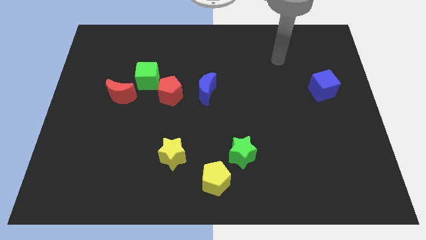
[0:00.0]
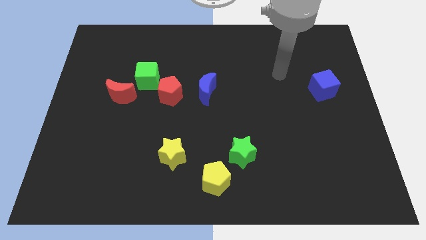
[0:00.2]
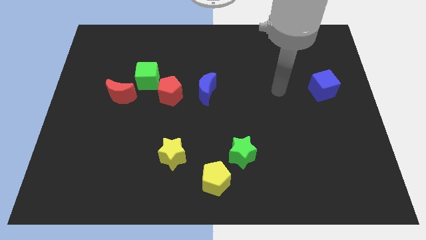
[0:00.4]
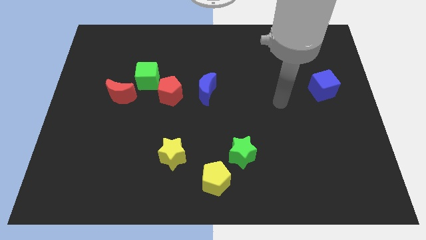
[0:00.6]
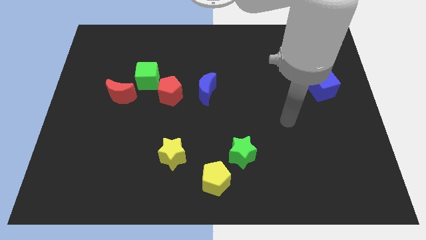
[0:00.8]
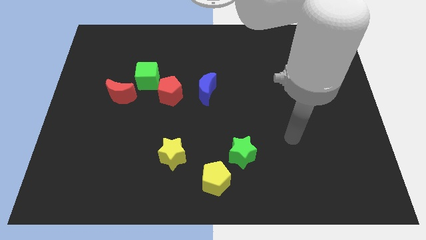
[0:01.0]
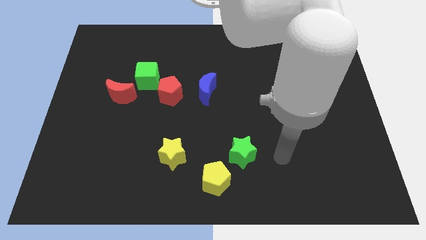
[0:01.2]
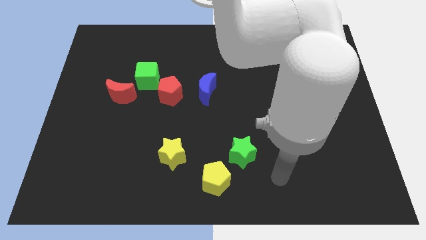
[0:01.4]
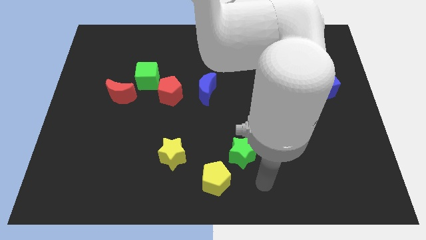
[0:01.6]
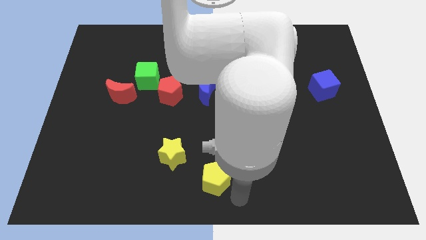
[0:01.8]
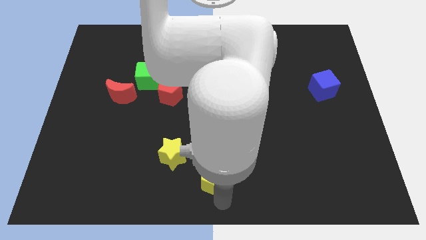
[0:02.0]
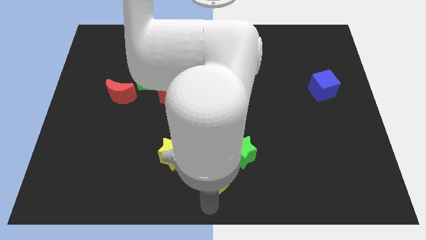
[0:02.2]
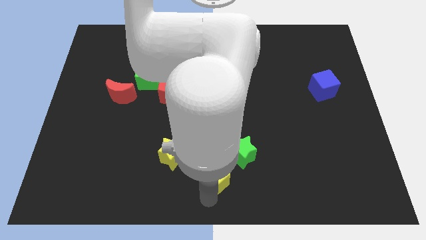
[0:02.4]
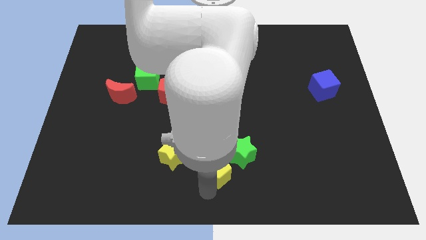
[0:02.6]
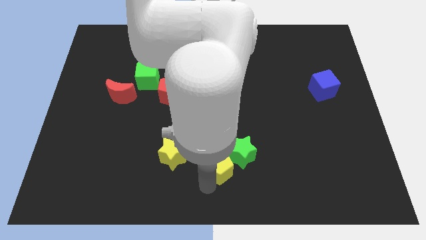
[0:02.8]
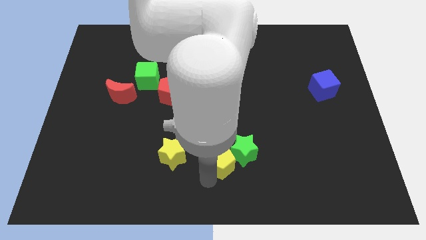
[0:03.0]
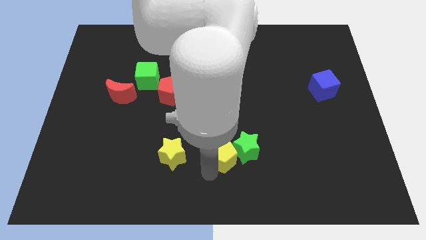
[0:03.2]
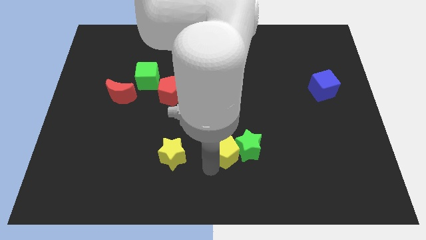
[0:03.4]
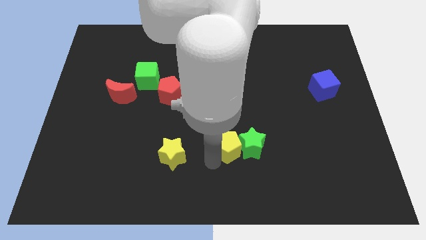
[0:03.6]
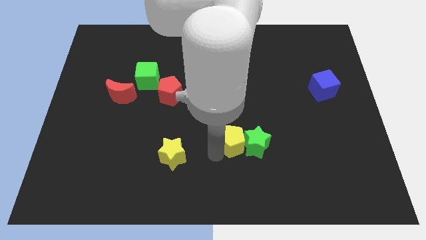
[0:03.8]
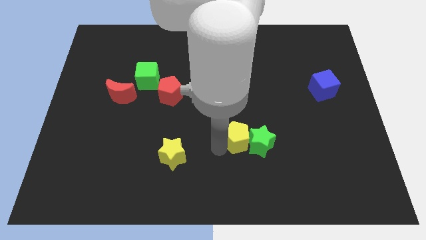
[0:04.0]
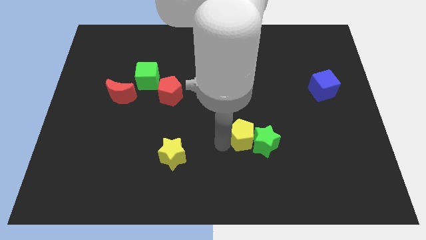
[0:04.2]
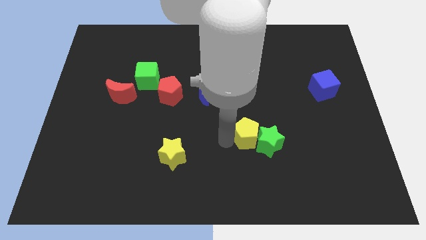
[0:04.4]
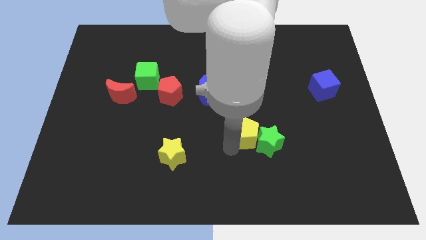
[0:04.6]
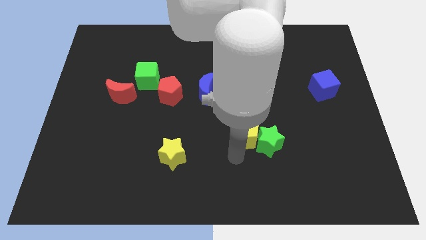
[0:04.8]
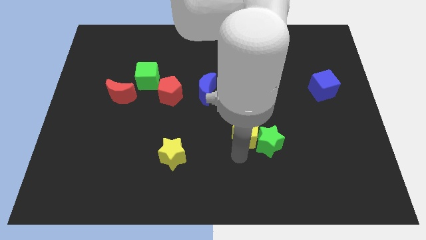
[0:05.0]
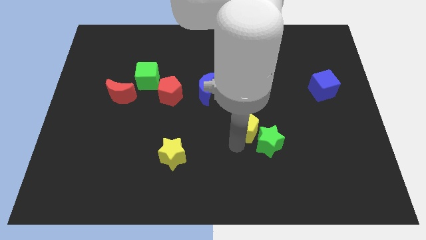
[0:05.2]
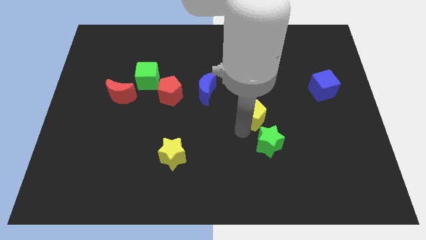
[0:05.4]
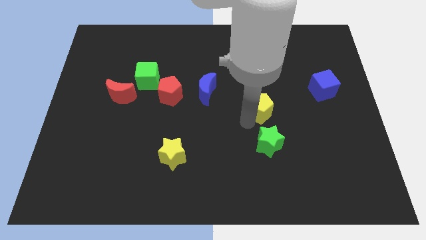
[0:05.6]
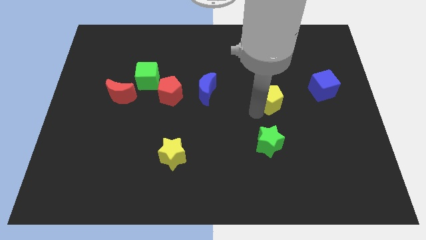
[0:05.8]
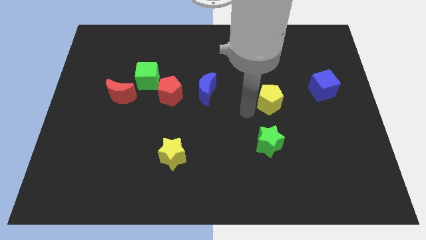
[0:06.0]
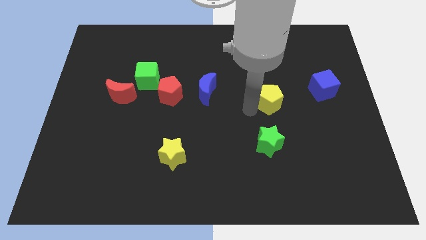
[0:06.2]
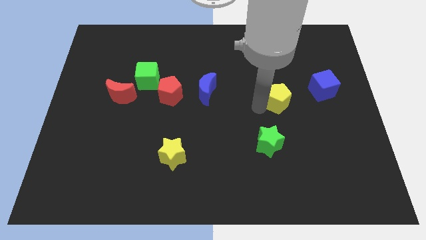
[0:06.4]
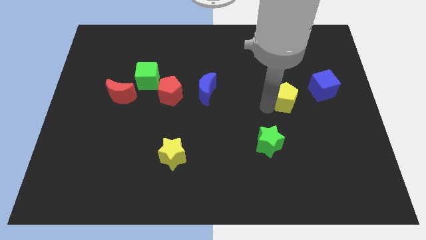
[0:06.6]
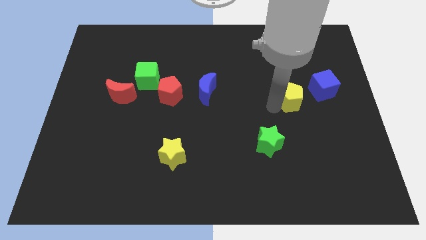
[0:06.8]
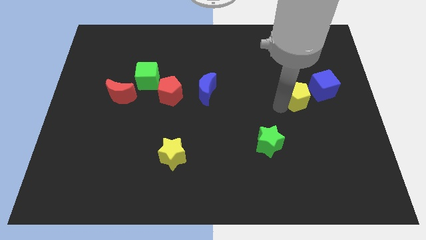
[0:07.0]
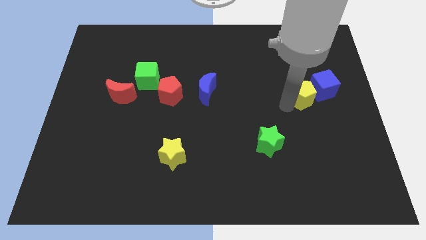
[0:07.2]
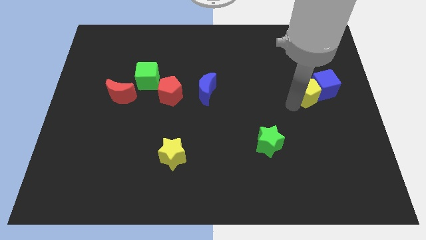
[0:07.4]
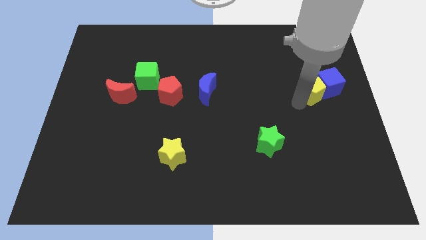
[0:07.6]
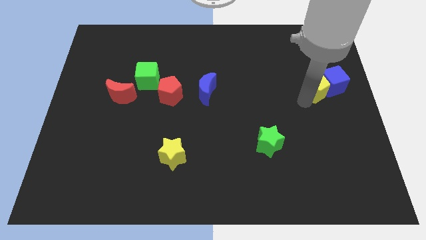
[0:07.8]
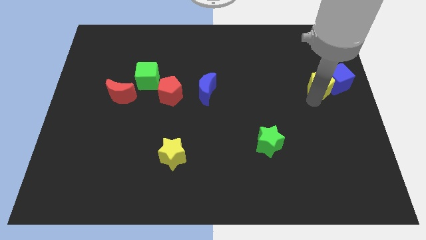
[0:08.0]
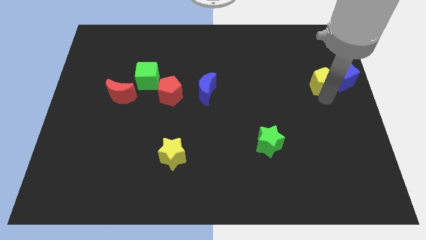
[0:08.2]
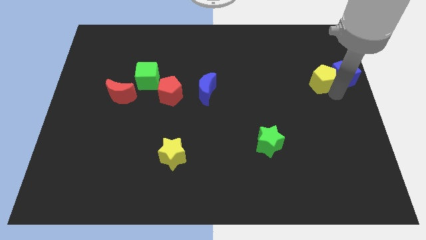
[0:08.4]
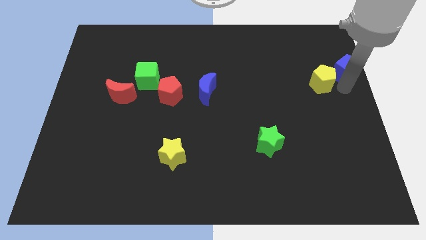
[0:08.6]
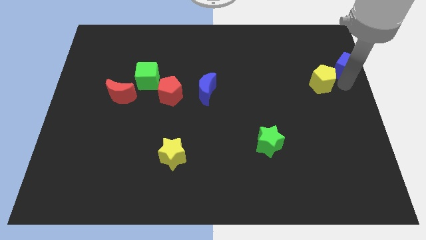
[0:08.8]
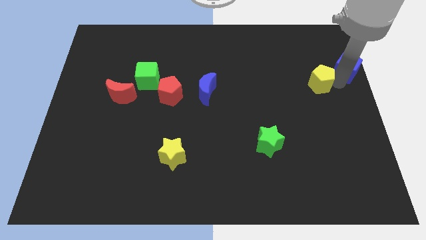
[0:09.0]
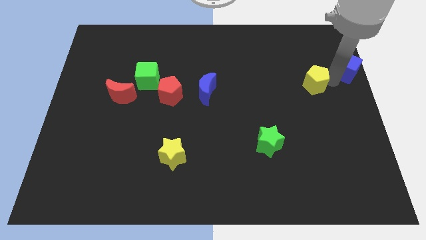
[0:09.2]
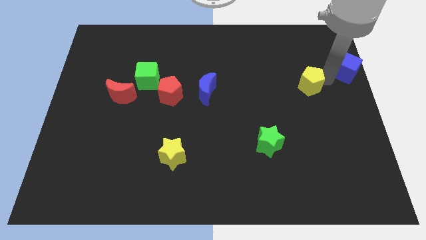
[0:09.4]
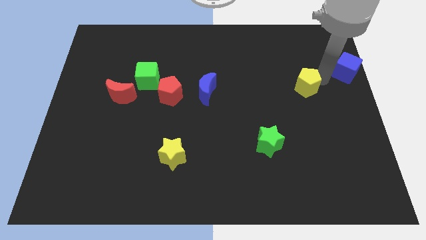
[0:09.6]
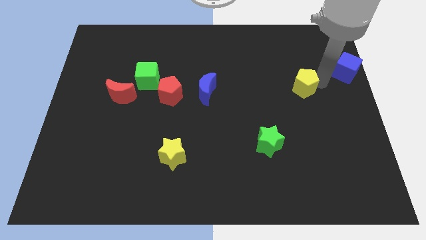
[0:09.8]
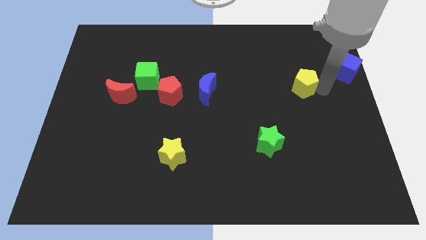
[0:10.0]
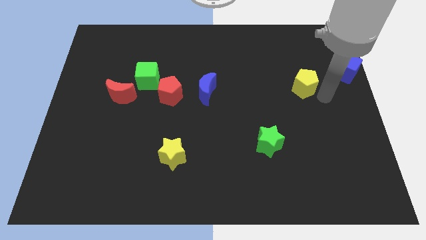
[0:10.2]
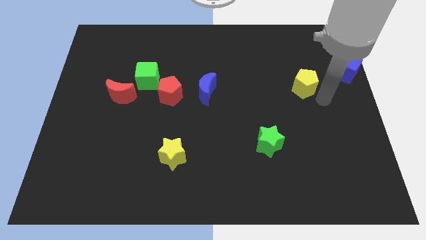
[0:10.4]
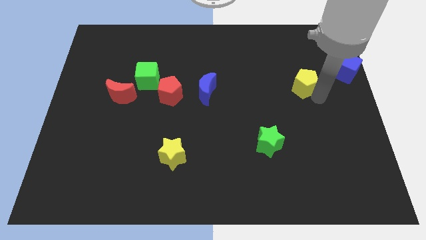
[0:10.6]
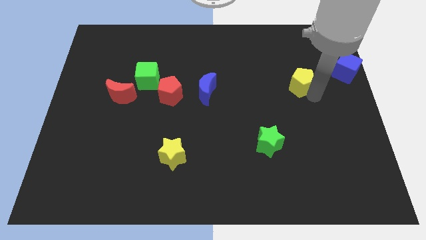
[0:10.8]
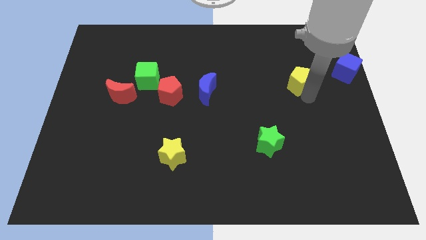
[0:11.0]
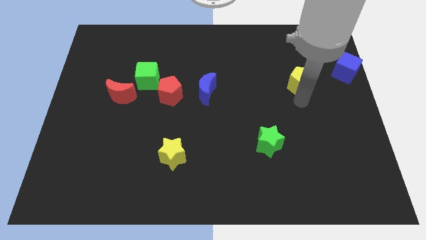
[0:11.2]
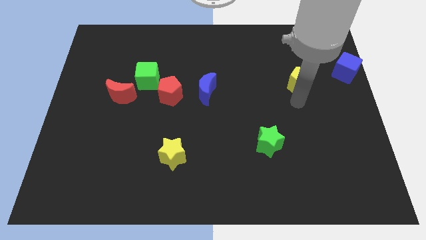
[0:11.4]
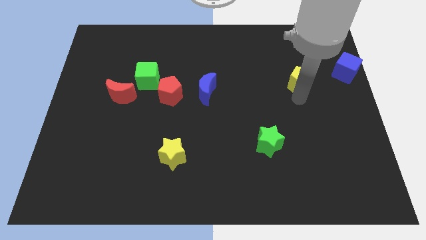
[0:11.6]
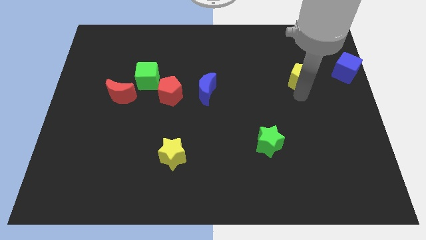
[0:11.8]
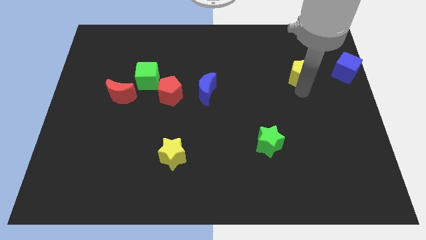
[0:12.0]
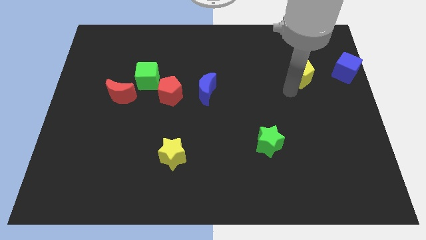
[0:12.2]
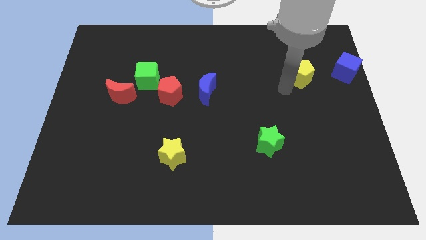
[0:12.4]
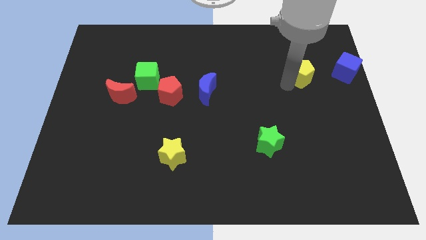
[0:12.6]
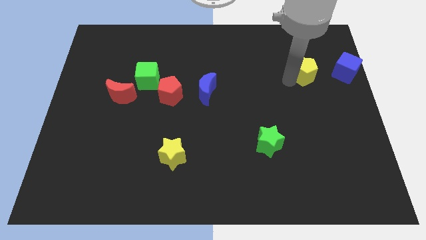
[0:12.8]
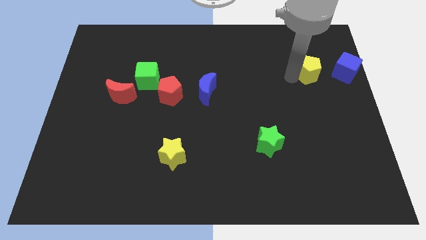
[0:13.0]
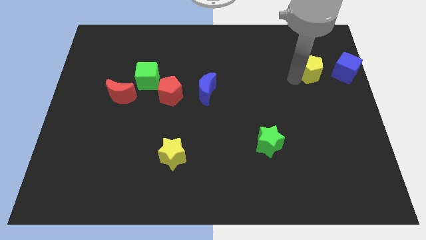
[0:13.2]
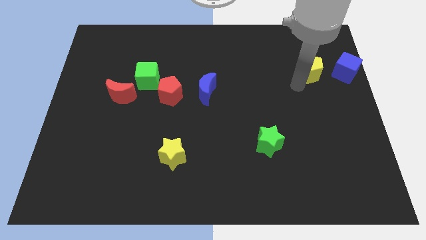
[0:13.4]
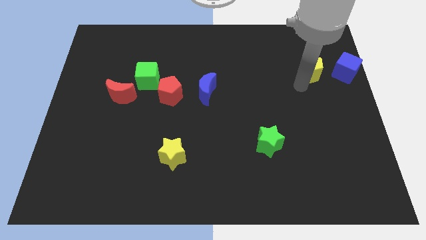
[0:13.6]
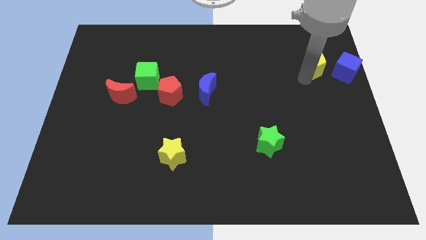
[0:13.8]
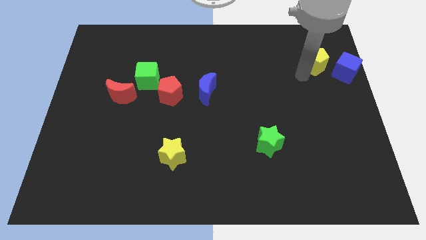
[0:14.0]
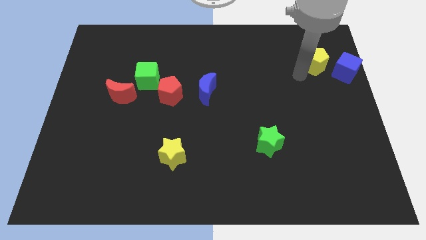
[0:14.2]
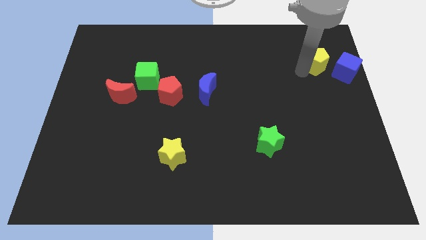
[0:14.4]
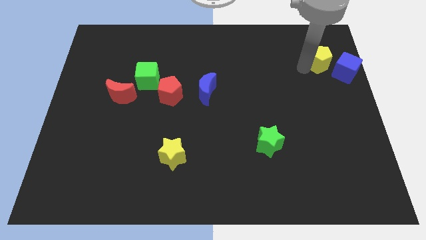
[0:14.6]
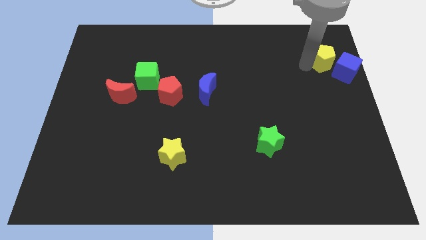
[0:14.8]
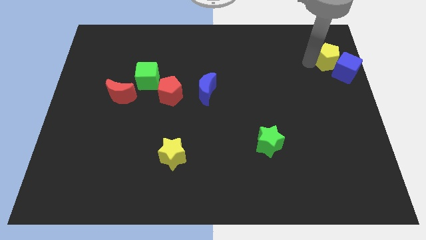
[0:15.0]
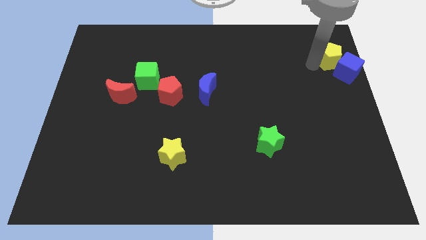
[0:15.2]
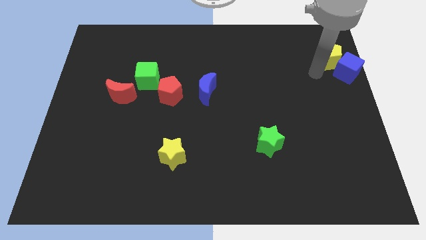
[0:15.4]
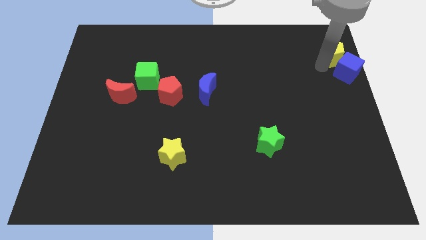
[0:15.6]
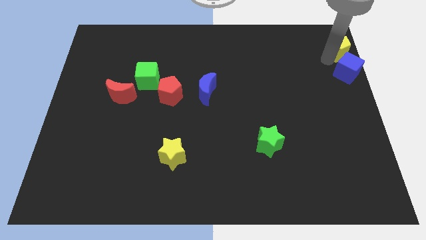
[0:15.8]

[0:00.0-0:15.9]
push the yellow pentagon to the upper right corner
